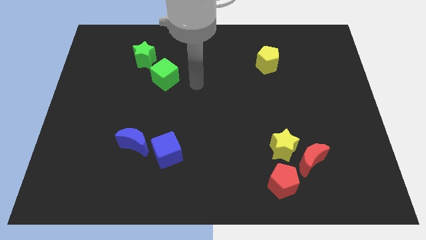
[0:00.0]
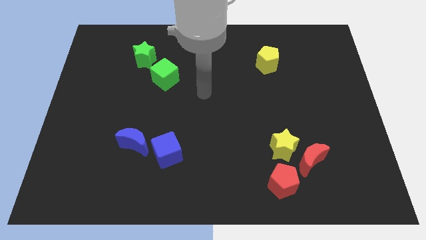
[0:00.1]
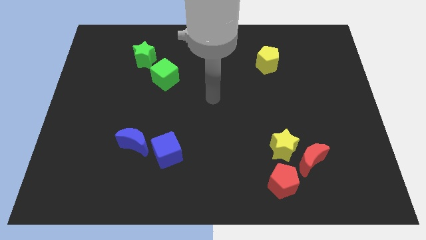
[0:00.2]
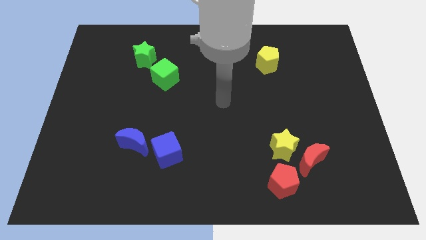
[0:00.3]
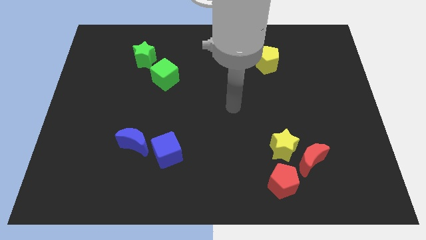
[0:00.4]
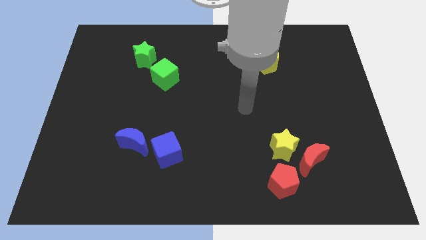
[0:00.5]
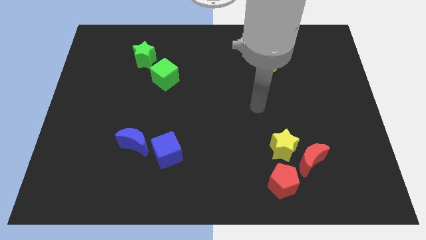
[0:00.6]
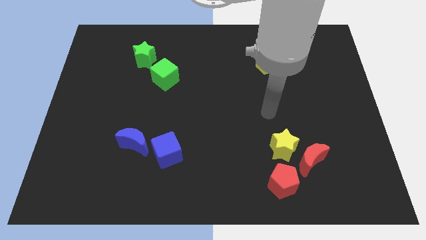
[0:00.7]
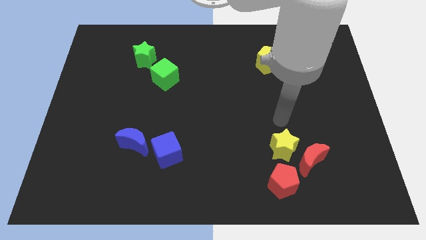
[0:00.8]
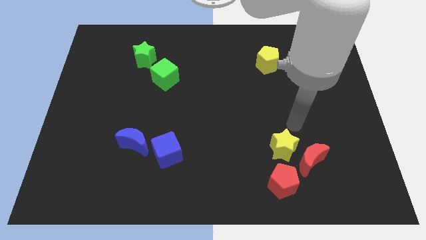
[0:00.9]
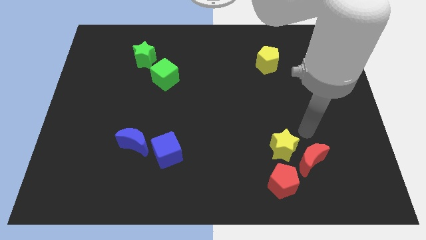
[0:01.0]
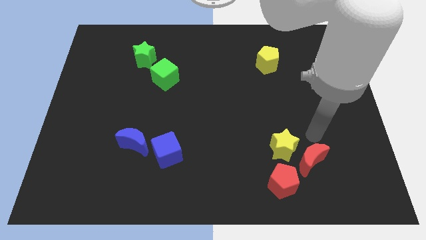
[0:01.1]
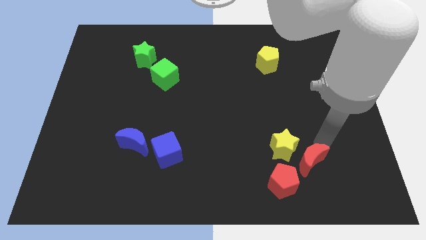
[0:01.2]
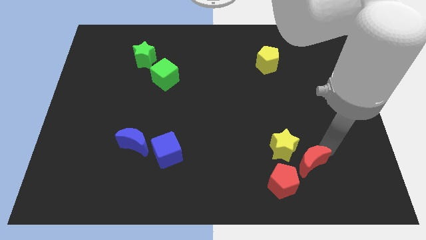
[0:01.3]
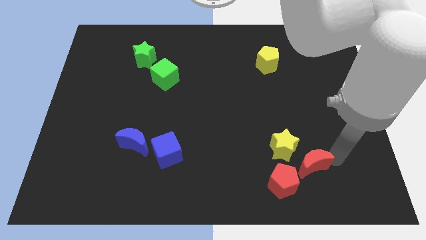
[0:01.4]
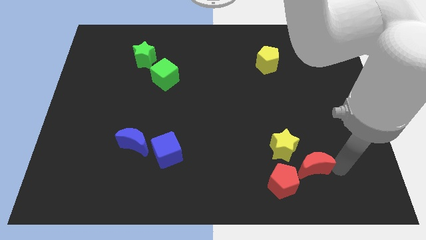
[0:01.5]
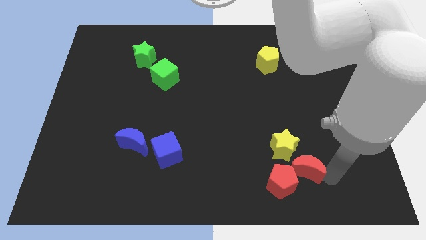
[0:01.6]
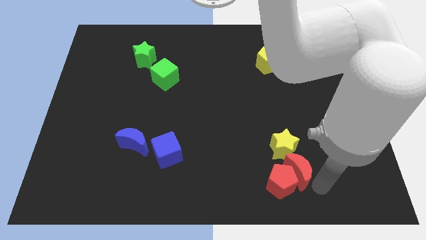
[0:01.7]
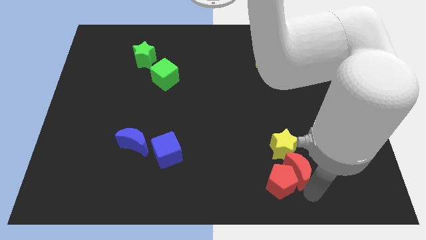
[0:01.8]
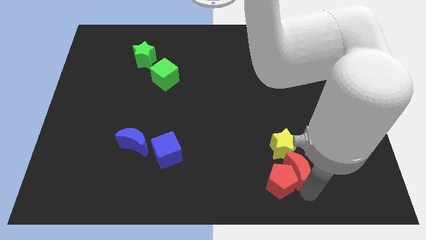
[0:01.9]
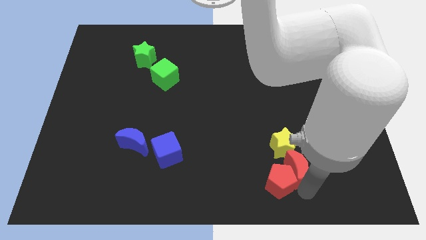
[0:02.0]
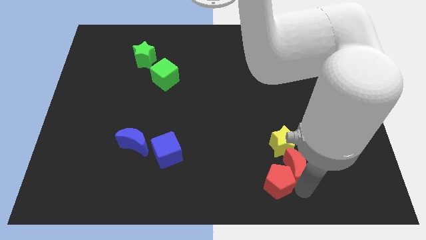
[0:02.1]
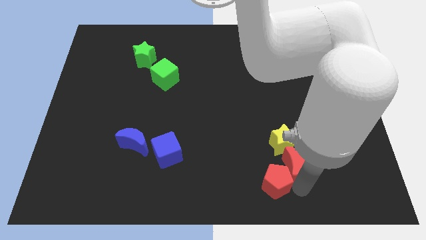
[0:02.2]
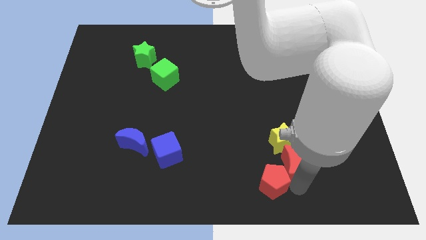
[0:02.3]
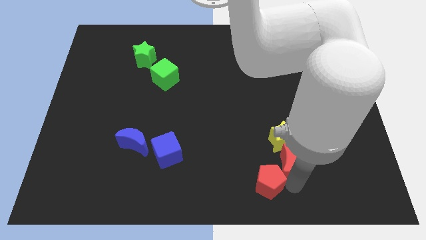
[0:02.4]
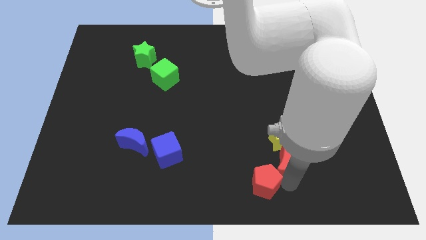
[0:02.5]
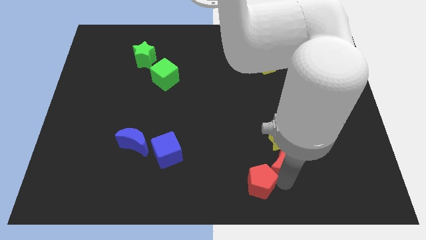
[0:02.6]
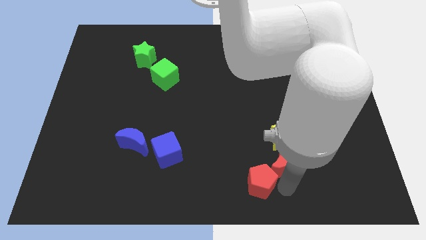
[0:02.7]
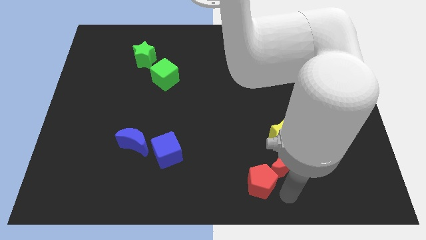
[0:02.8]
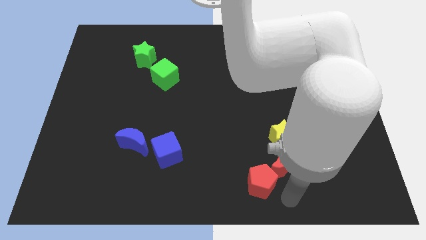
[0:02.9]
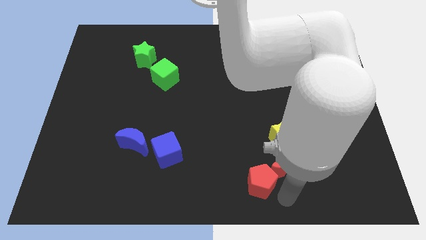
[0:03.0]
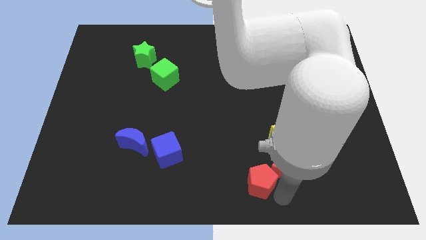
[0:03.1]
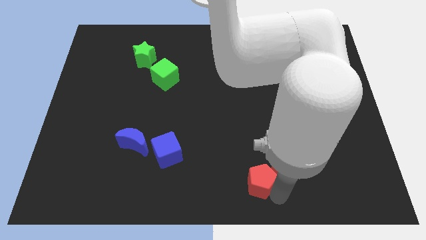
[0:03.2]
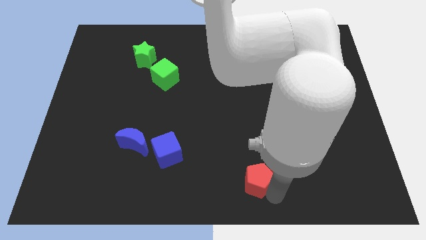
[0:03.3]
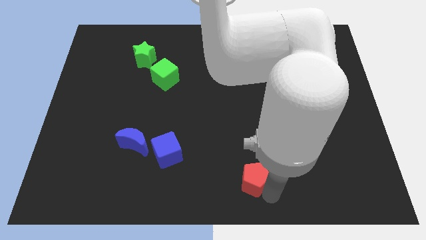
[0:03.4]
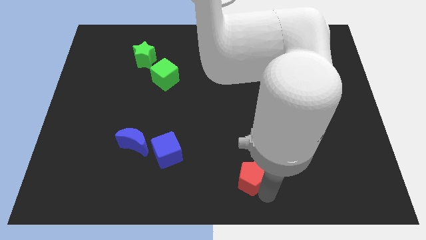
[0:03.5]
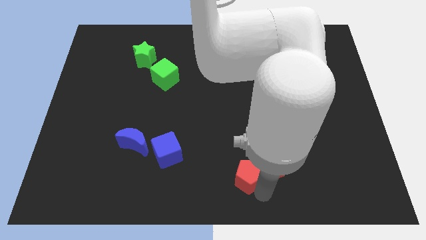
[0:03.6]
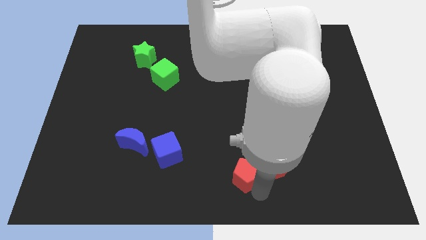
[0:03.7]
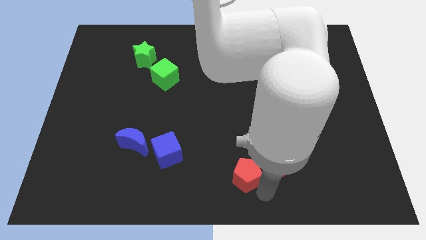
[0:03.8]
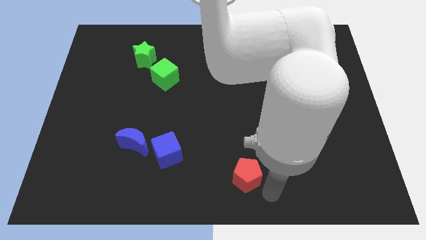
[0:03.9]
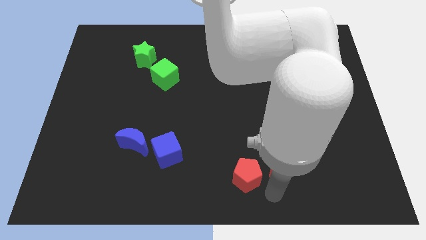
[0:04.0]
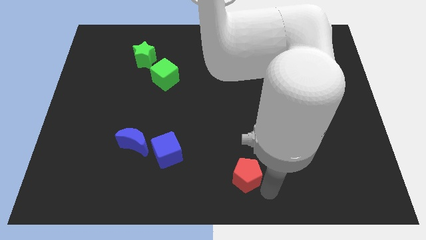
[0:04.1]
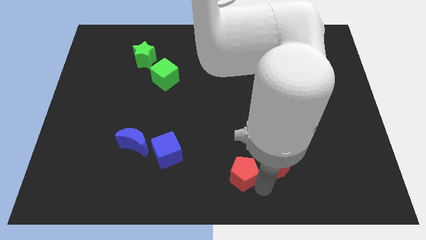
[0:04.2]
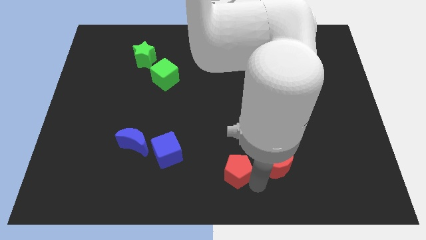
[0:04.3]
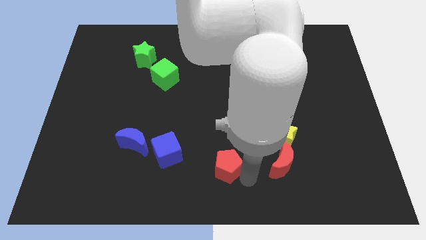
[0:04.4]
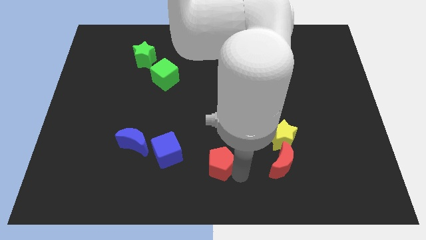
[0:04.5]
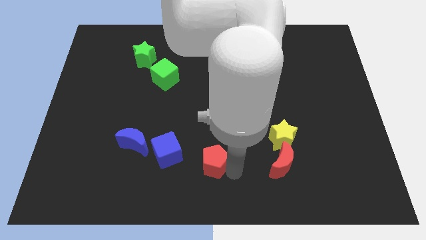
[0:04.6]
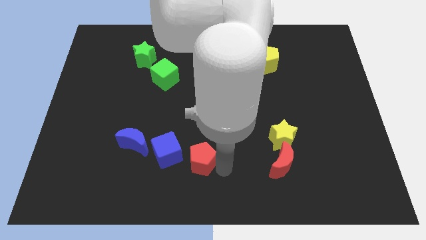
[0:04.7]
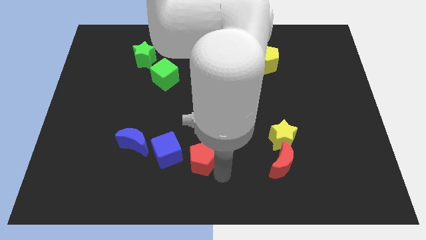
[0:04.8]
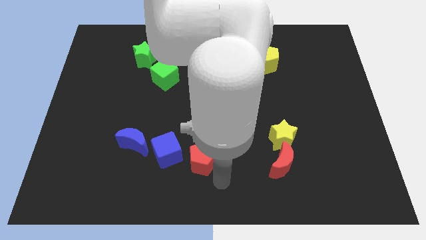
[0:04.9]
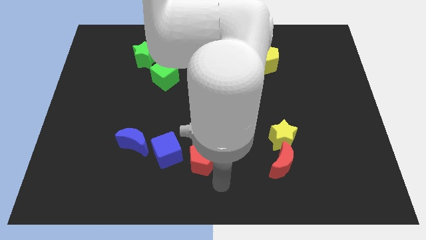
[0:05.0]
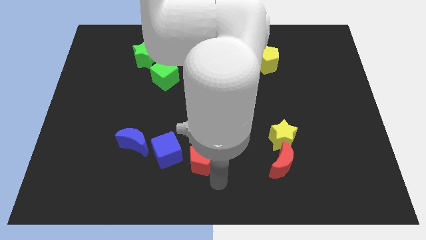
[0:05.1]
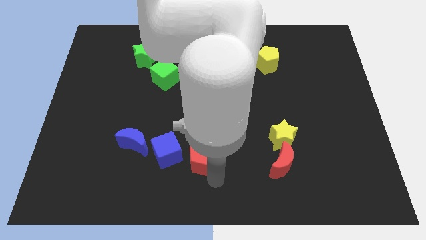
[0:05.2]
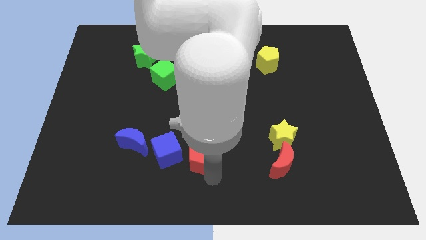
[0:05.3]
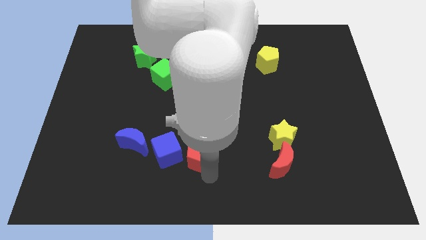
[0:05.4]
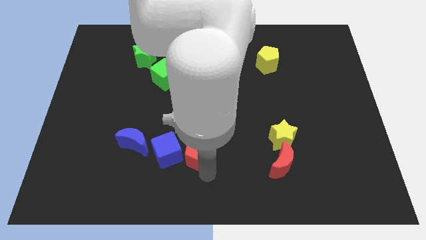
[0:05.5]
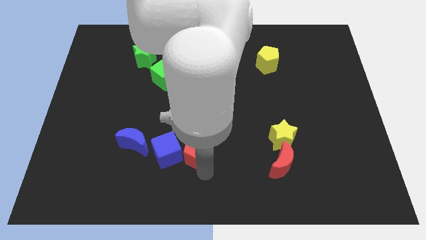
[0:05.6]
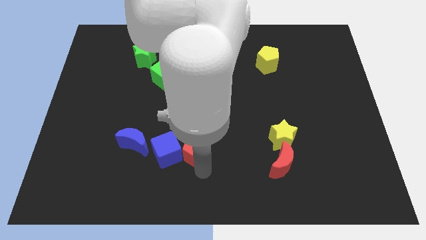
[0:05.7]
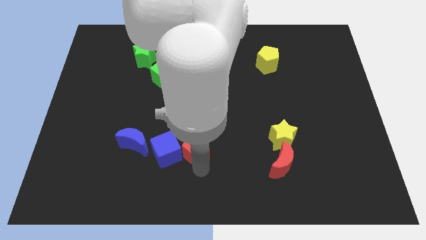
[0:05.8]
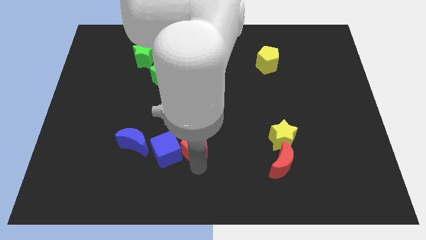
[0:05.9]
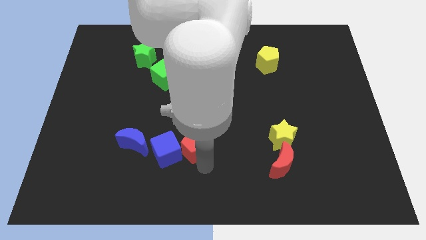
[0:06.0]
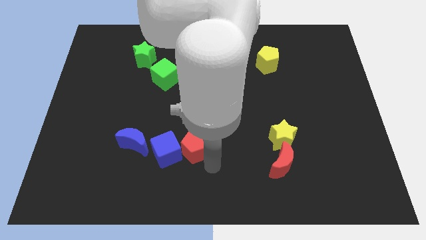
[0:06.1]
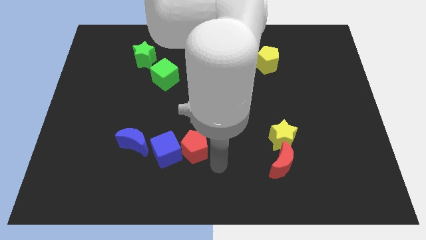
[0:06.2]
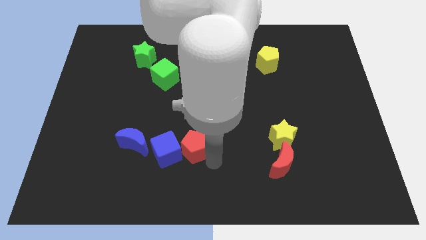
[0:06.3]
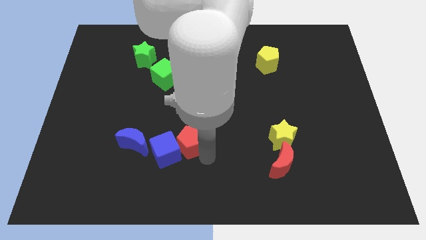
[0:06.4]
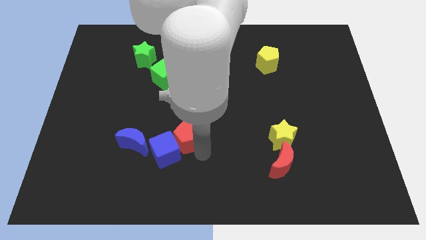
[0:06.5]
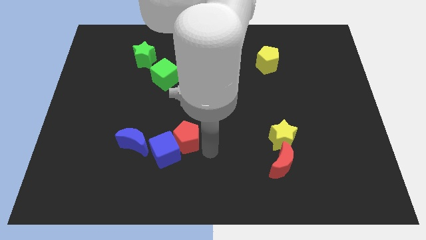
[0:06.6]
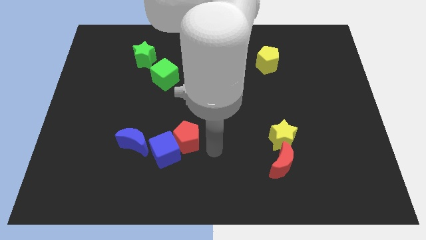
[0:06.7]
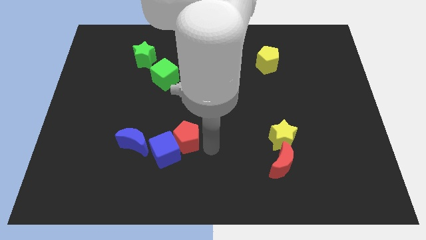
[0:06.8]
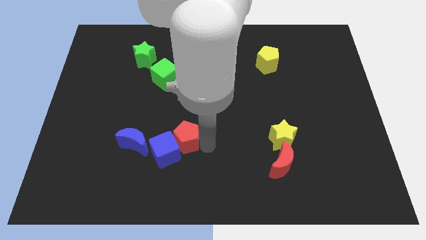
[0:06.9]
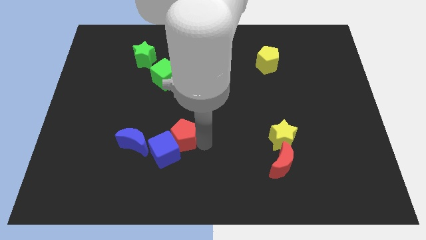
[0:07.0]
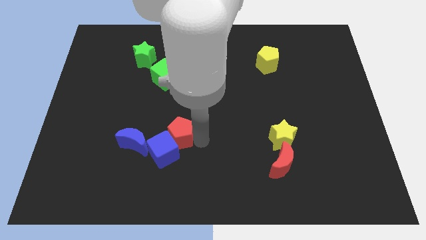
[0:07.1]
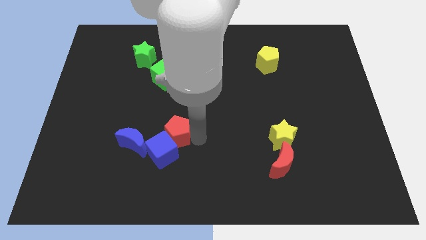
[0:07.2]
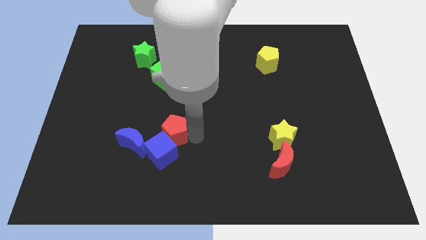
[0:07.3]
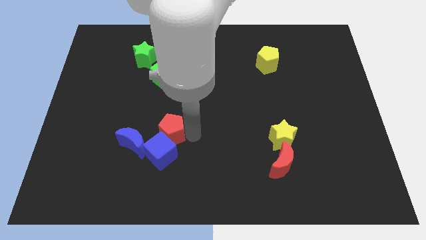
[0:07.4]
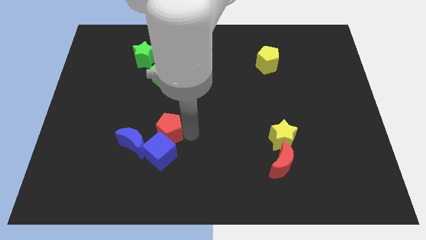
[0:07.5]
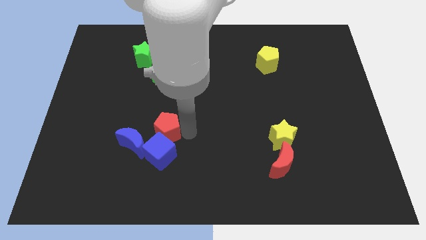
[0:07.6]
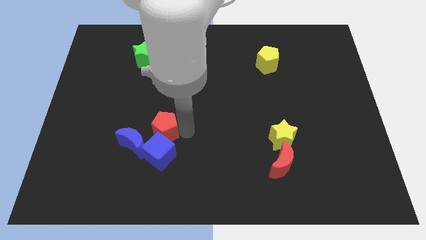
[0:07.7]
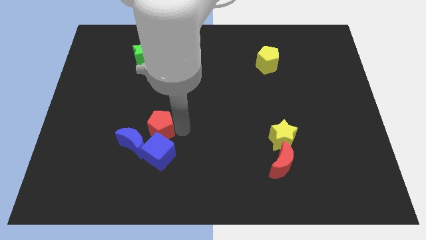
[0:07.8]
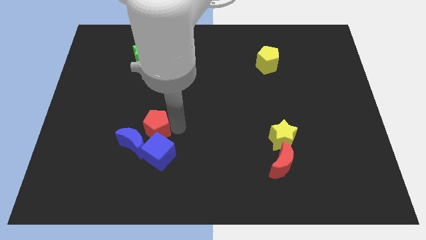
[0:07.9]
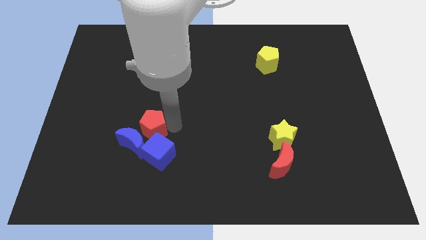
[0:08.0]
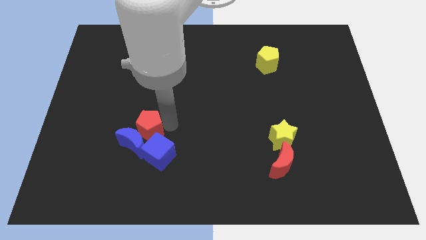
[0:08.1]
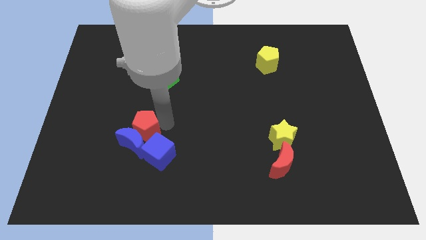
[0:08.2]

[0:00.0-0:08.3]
push the red pentagon diagonally up and to the left of the blue moon
